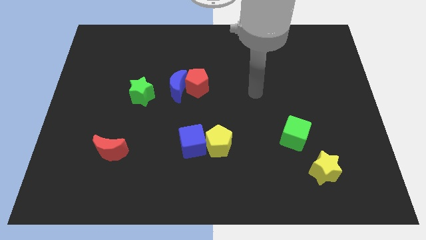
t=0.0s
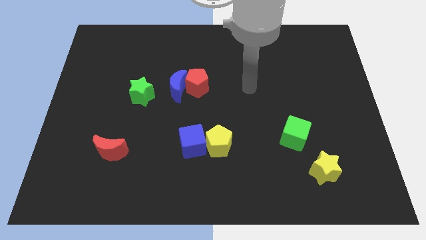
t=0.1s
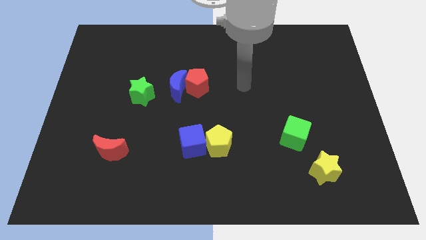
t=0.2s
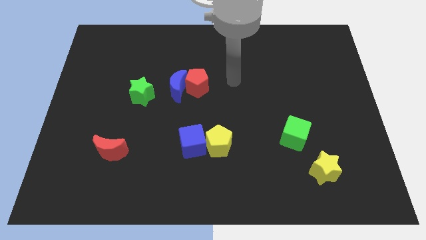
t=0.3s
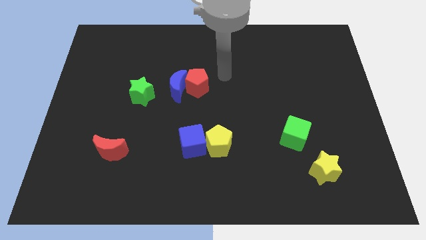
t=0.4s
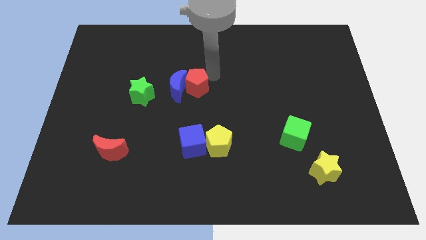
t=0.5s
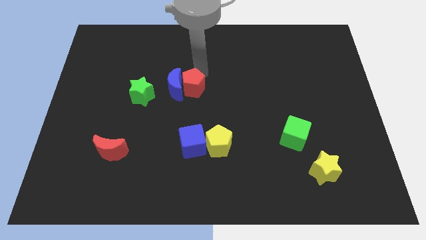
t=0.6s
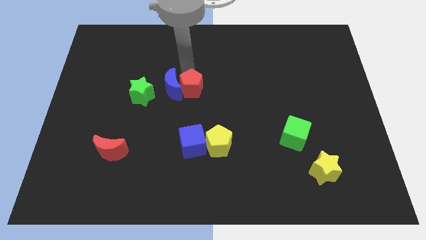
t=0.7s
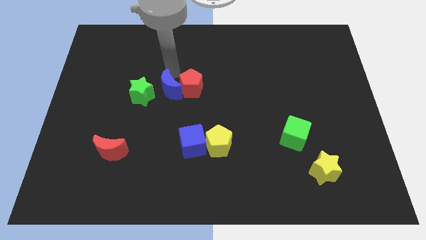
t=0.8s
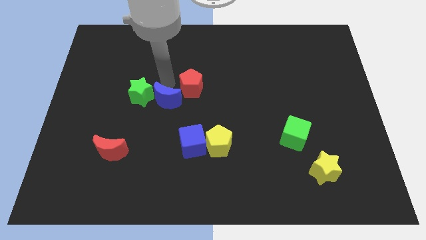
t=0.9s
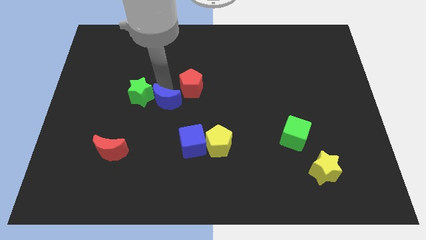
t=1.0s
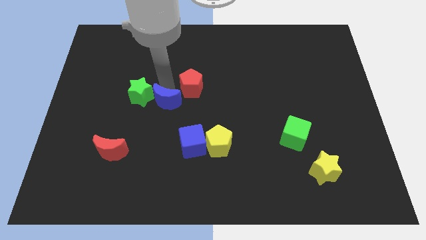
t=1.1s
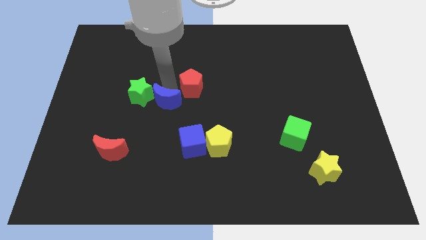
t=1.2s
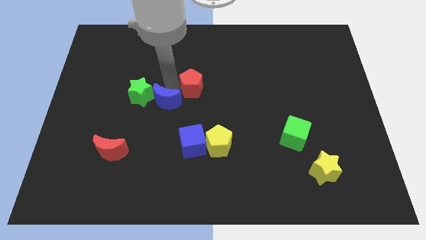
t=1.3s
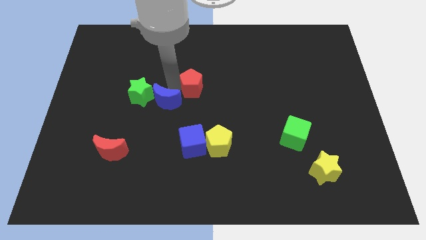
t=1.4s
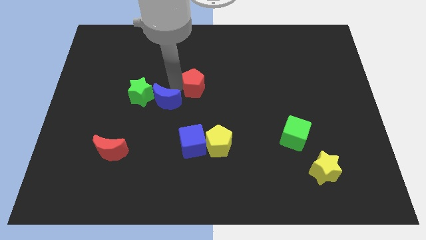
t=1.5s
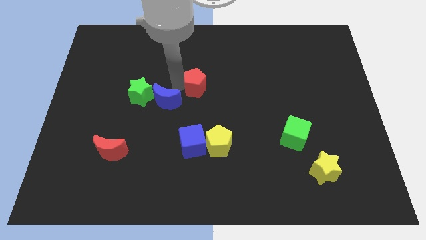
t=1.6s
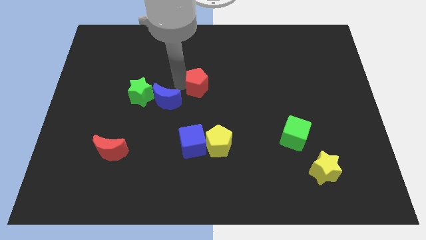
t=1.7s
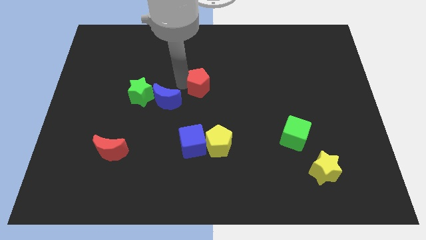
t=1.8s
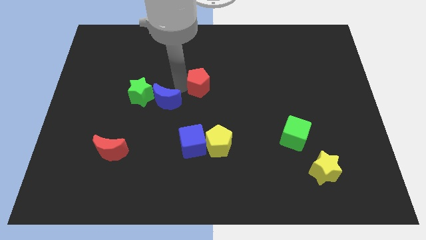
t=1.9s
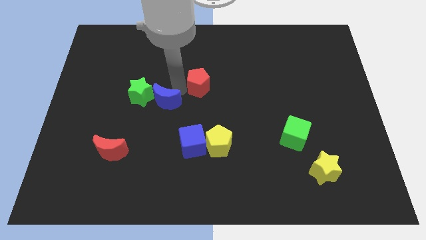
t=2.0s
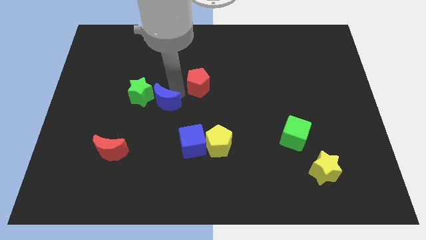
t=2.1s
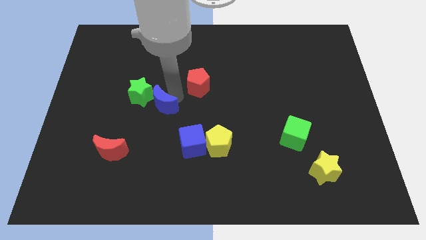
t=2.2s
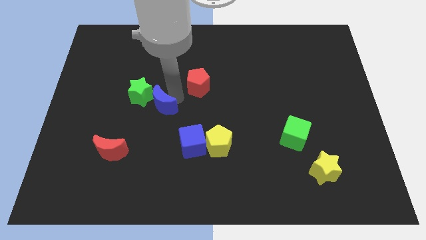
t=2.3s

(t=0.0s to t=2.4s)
separate the red pentagon from the blue moon

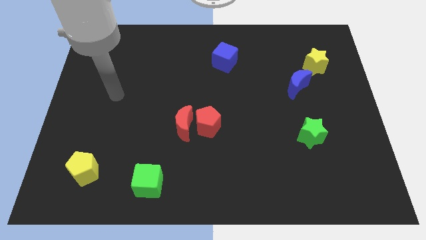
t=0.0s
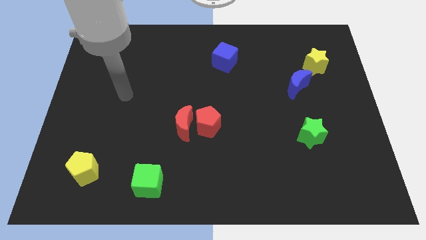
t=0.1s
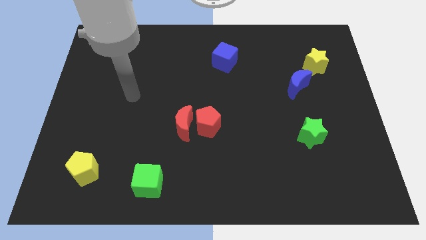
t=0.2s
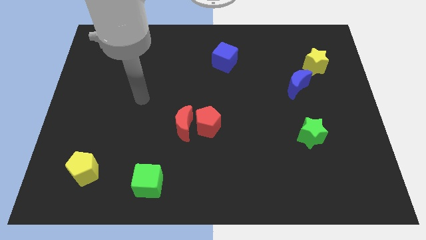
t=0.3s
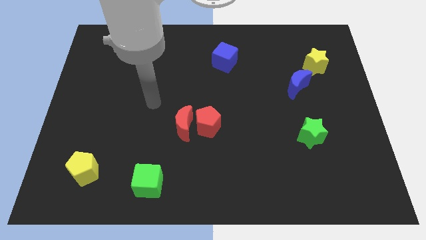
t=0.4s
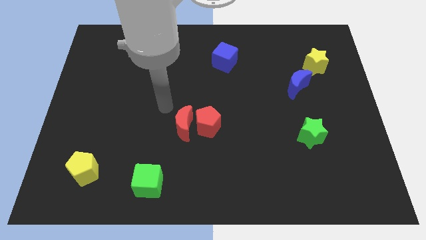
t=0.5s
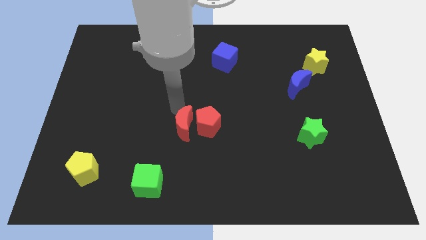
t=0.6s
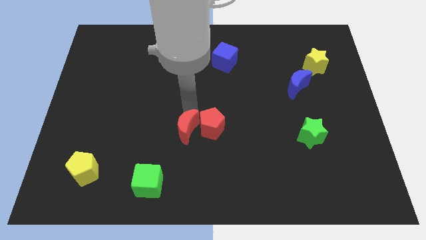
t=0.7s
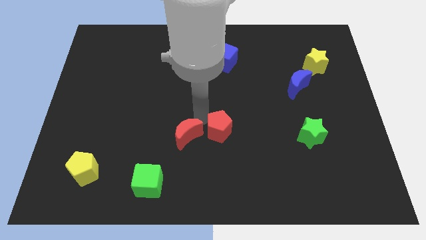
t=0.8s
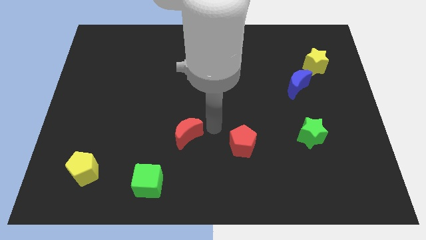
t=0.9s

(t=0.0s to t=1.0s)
move the red moon away from the red pentagon

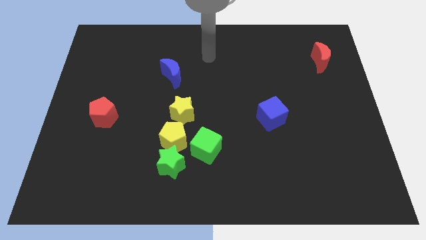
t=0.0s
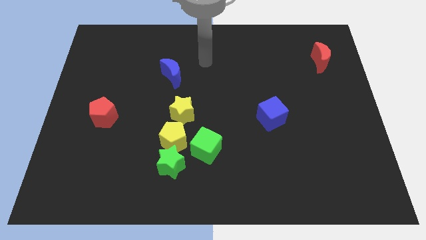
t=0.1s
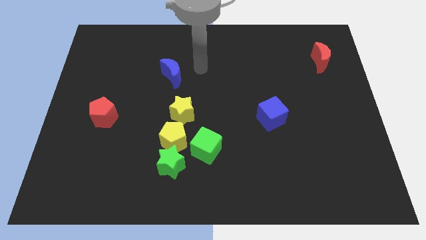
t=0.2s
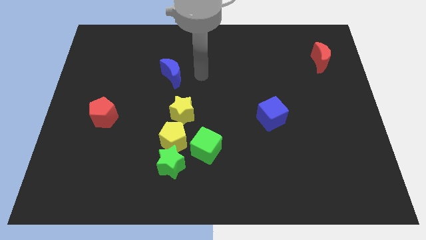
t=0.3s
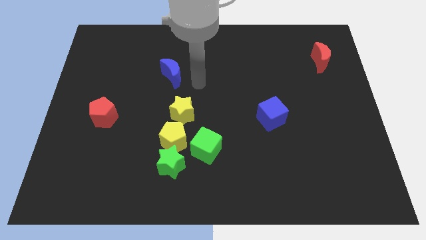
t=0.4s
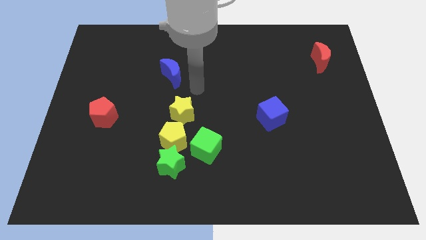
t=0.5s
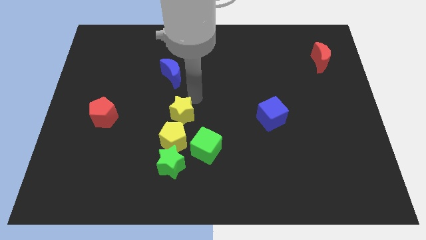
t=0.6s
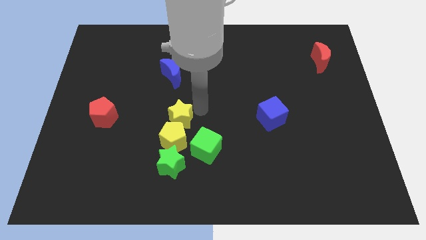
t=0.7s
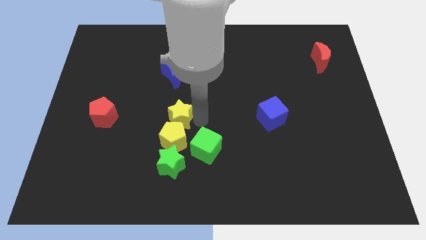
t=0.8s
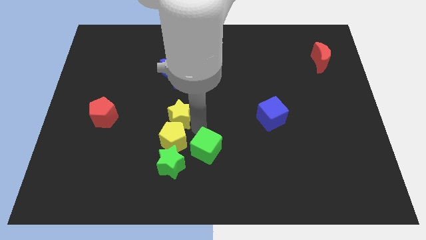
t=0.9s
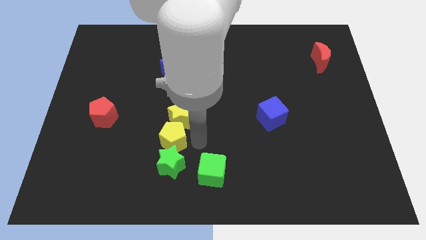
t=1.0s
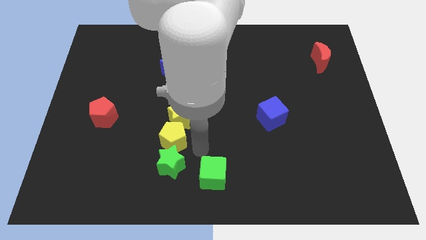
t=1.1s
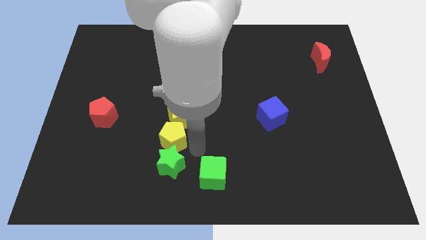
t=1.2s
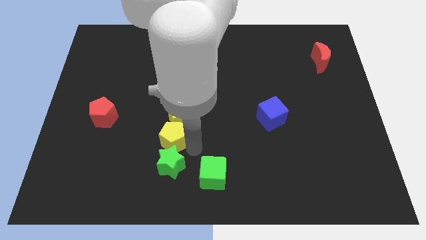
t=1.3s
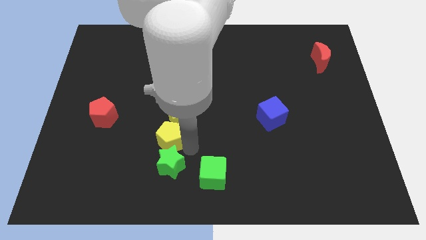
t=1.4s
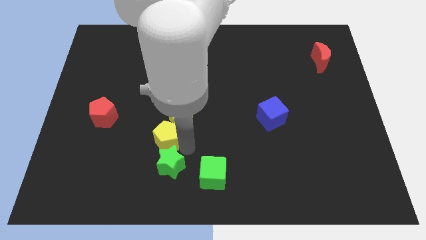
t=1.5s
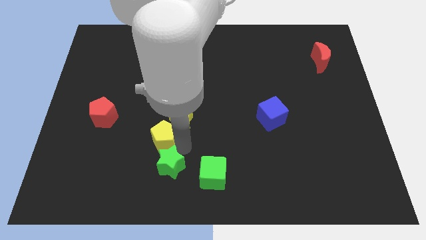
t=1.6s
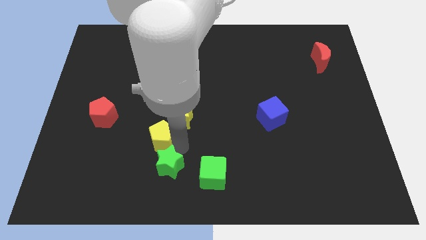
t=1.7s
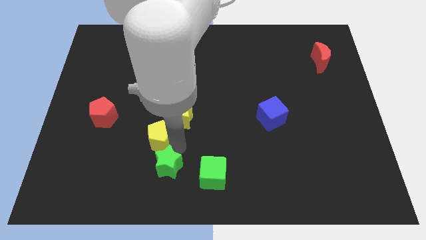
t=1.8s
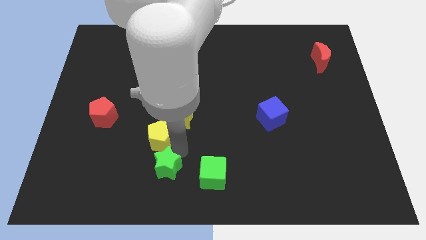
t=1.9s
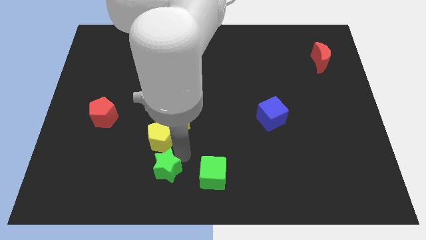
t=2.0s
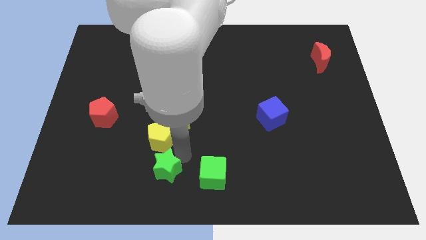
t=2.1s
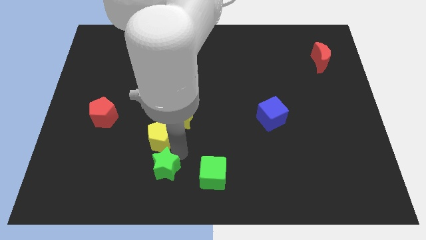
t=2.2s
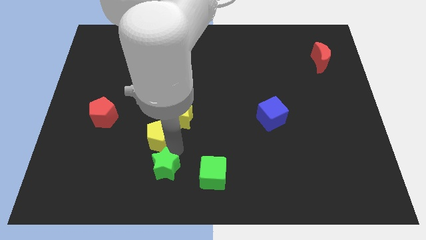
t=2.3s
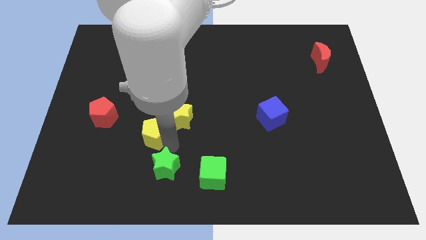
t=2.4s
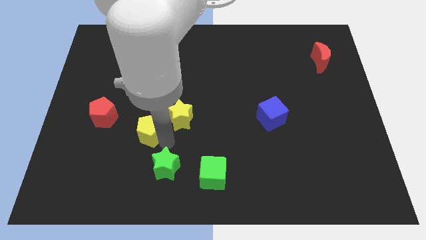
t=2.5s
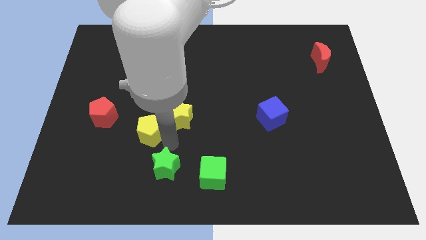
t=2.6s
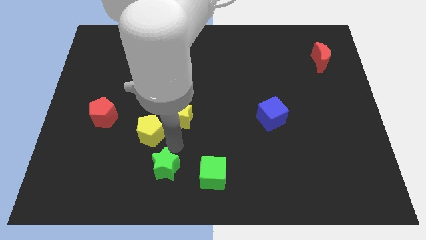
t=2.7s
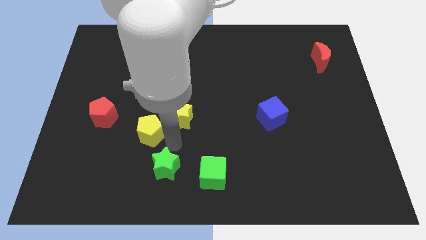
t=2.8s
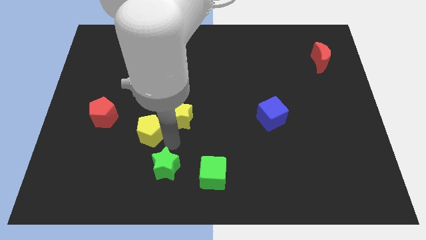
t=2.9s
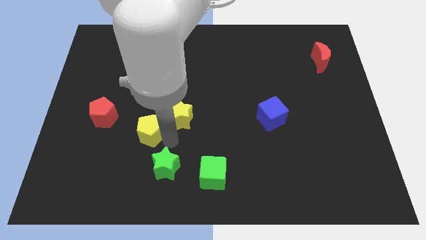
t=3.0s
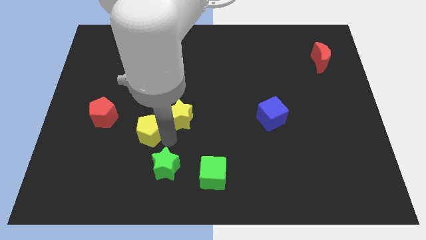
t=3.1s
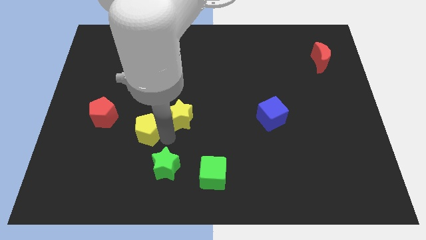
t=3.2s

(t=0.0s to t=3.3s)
separate the yellow pentagon from the green star, yellow star, and green cube

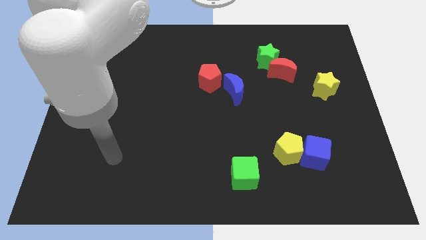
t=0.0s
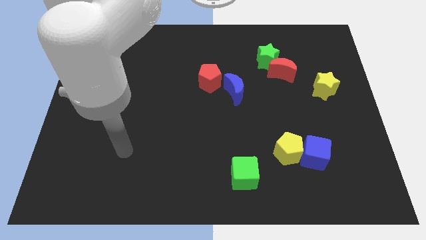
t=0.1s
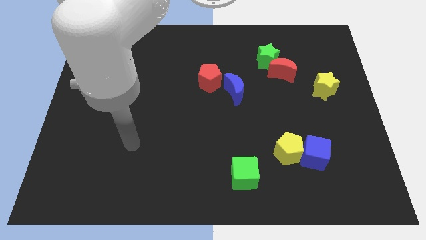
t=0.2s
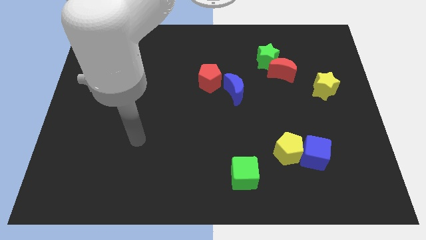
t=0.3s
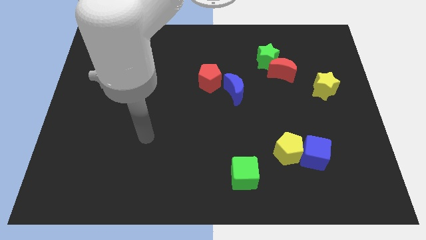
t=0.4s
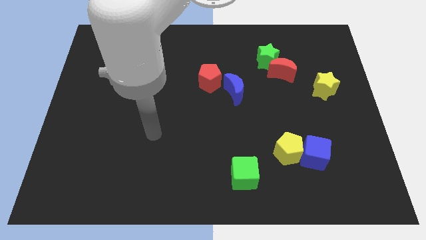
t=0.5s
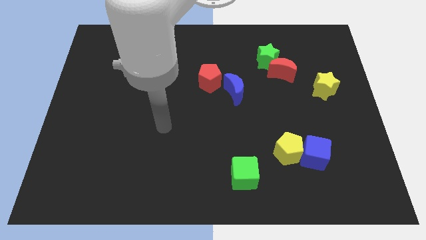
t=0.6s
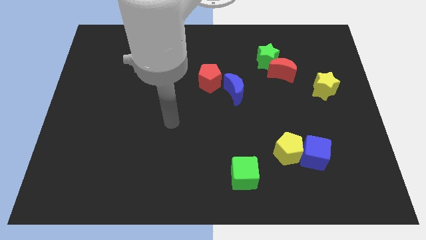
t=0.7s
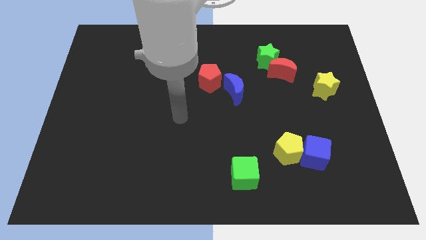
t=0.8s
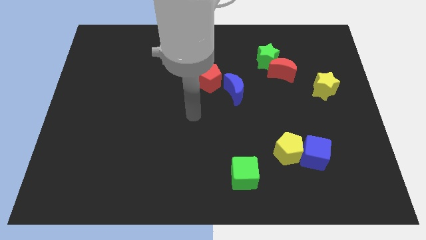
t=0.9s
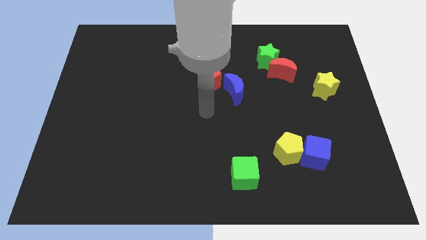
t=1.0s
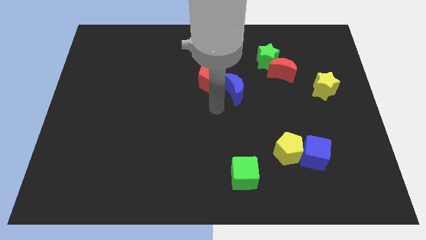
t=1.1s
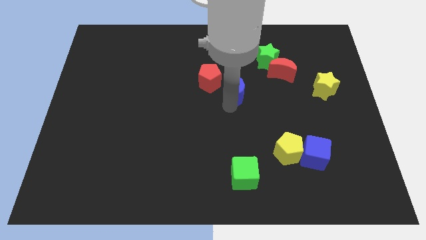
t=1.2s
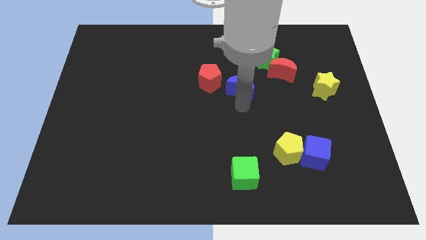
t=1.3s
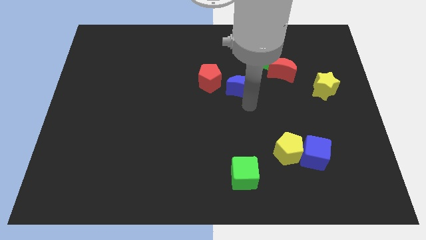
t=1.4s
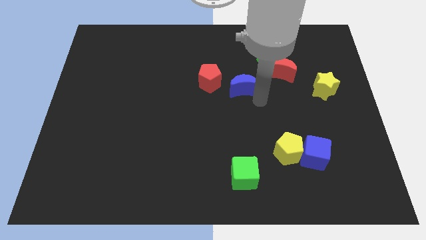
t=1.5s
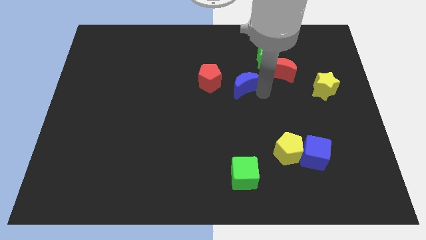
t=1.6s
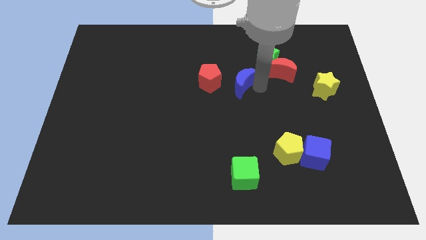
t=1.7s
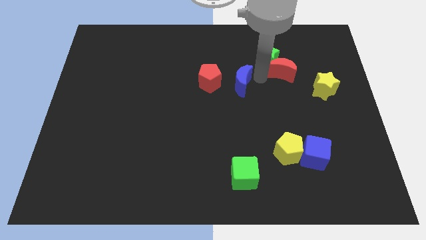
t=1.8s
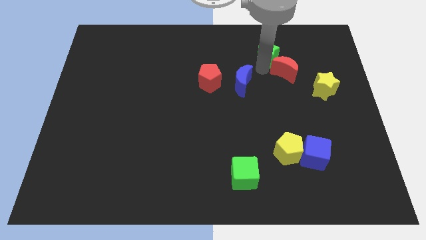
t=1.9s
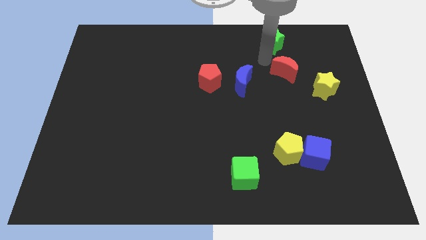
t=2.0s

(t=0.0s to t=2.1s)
move the red moon away from the green star

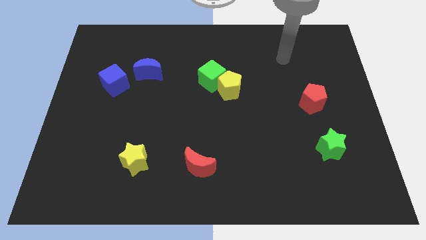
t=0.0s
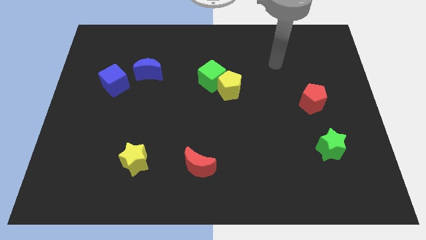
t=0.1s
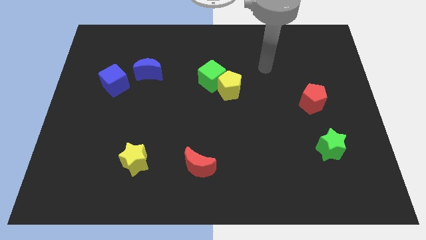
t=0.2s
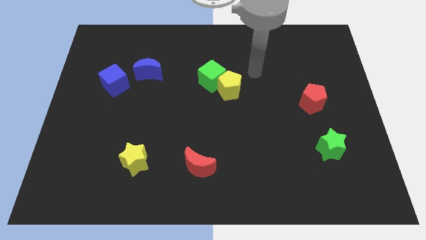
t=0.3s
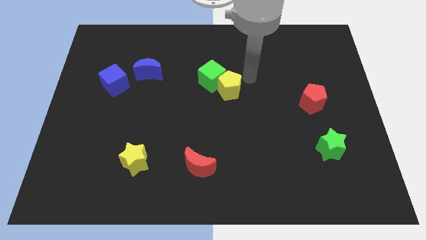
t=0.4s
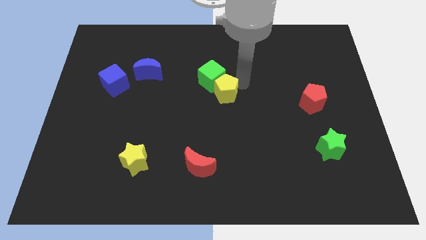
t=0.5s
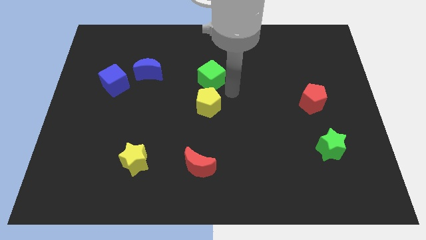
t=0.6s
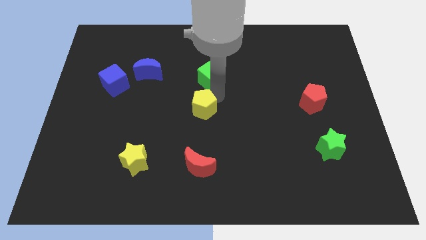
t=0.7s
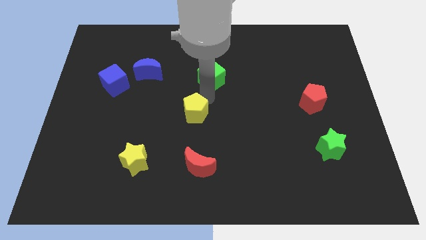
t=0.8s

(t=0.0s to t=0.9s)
separate the green cube from the yellow pentagon
